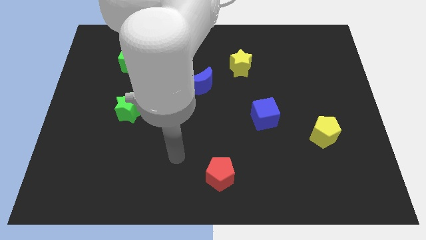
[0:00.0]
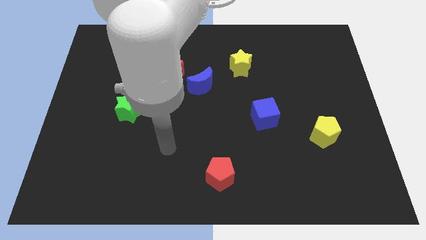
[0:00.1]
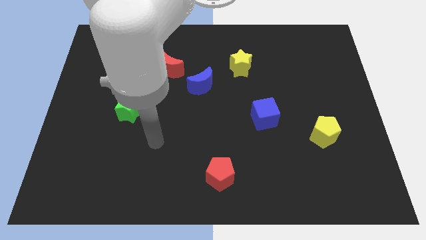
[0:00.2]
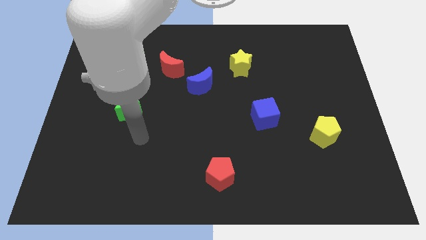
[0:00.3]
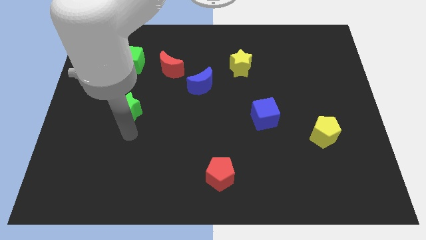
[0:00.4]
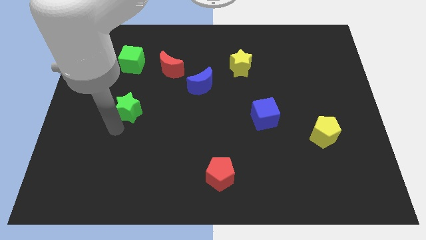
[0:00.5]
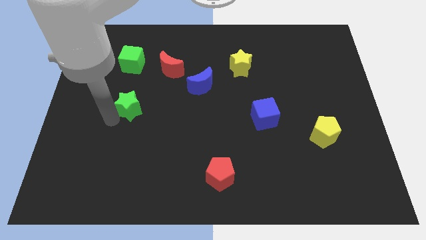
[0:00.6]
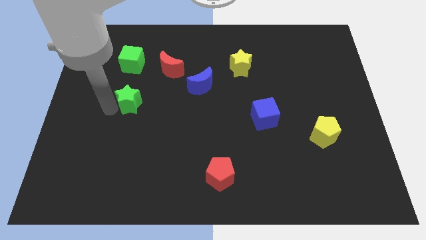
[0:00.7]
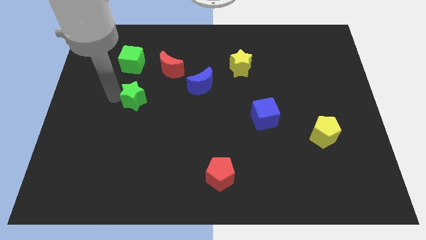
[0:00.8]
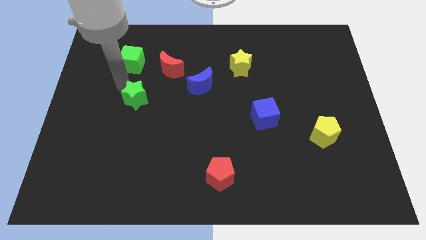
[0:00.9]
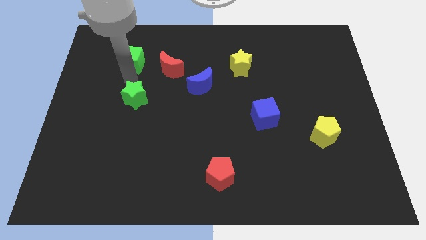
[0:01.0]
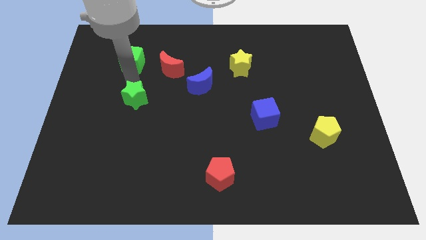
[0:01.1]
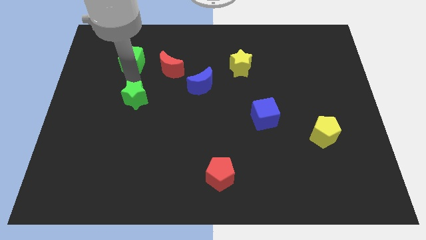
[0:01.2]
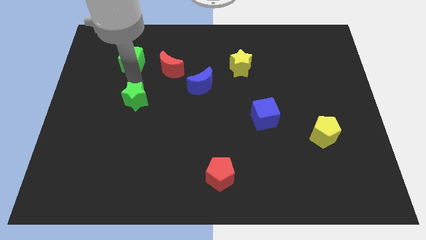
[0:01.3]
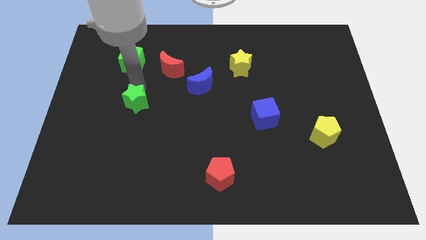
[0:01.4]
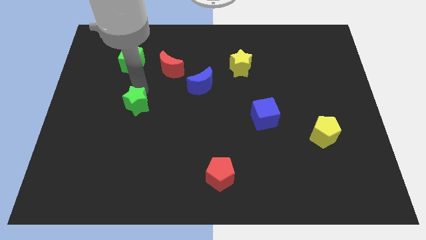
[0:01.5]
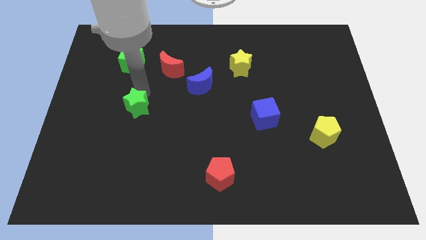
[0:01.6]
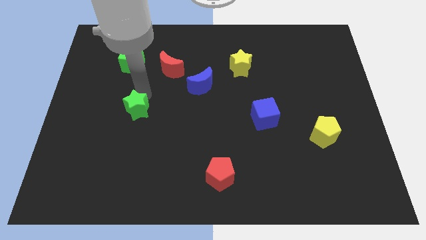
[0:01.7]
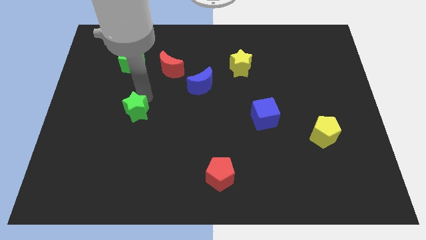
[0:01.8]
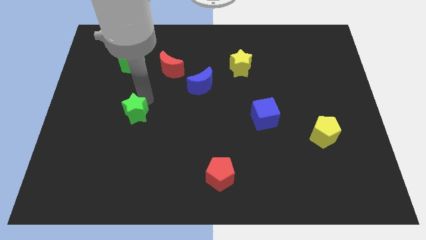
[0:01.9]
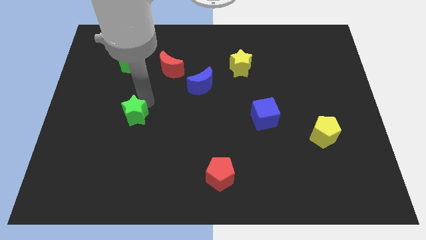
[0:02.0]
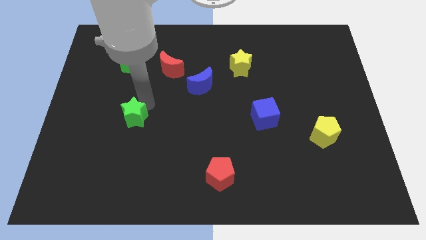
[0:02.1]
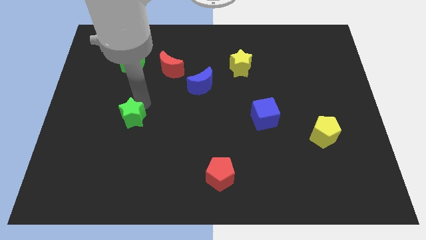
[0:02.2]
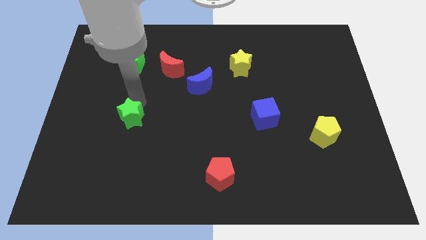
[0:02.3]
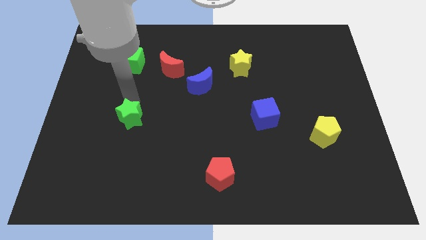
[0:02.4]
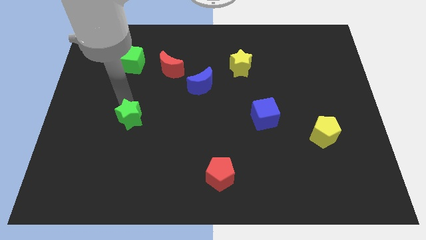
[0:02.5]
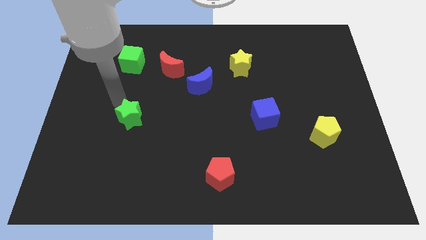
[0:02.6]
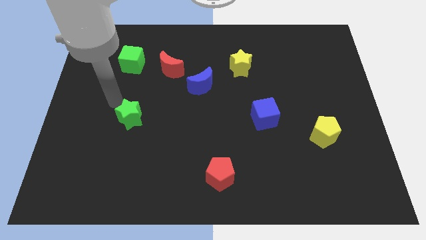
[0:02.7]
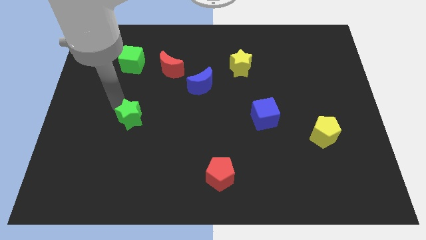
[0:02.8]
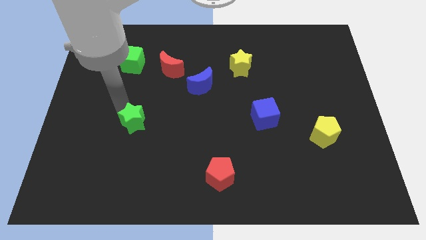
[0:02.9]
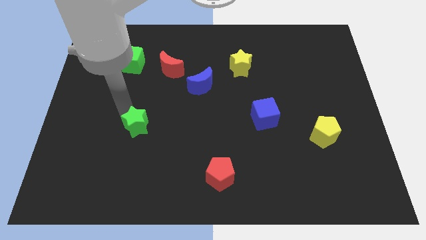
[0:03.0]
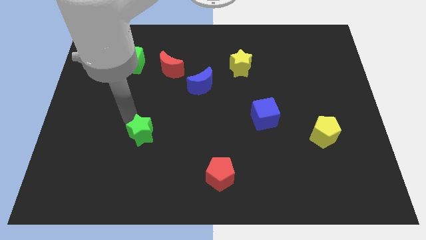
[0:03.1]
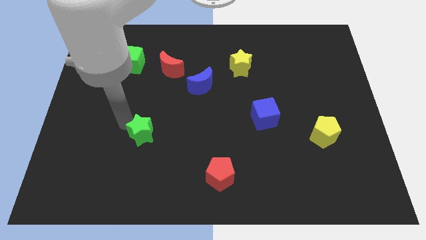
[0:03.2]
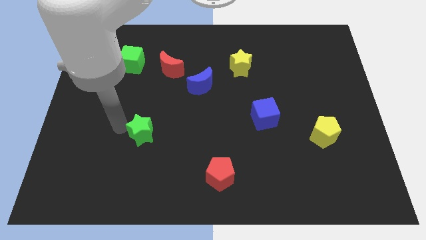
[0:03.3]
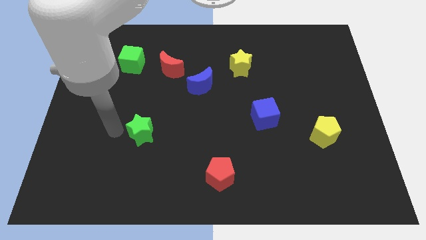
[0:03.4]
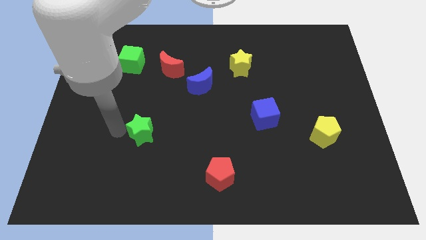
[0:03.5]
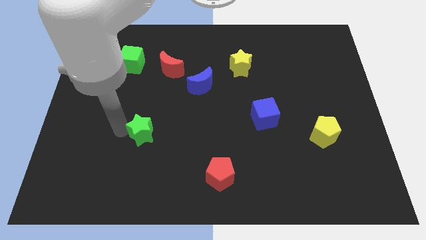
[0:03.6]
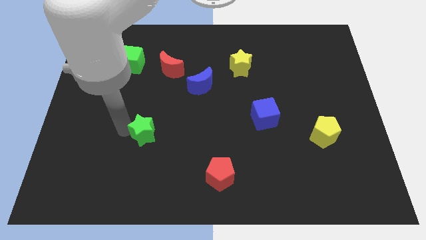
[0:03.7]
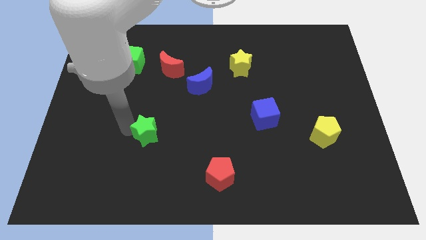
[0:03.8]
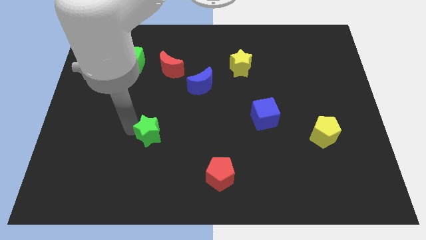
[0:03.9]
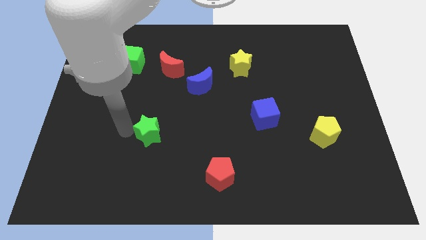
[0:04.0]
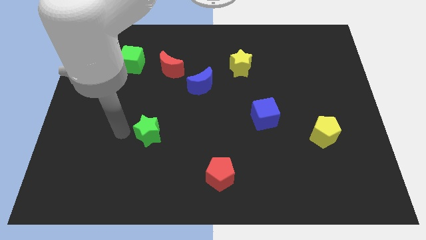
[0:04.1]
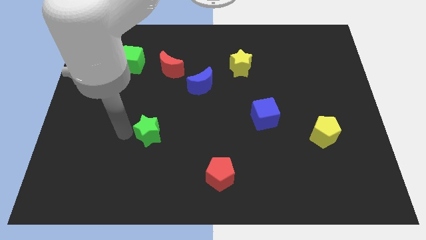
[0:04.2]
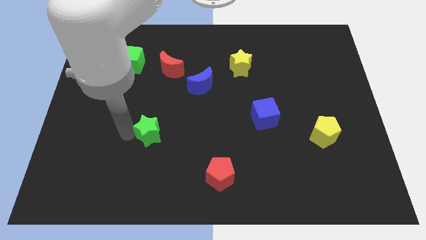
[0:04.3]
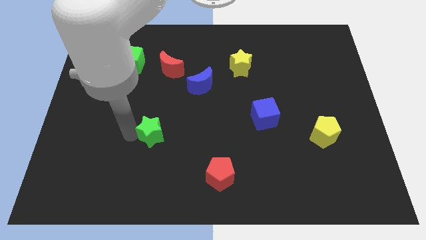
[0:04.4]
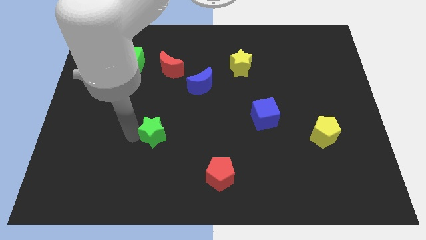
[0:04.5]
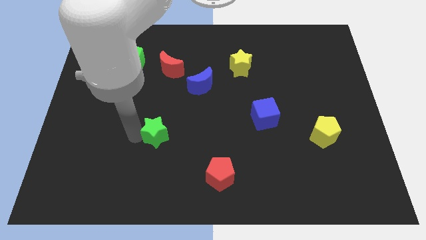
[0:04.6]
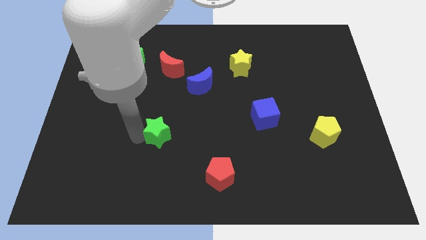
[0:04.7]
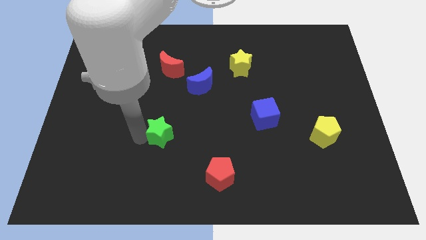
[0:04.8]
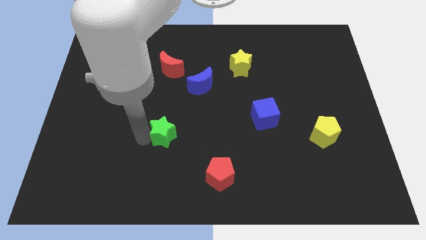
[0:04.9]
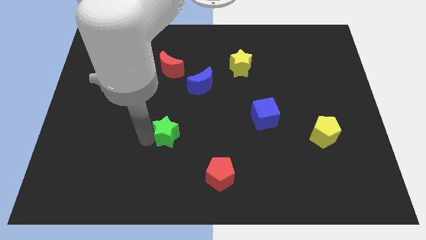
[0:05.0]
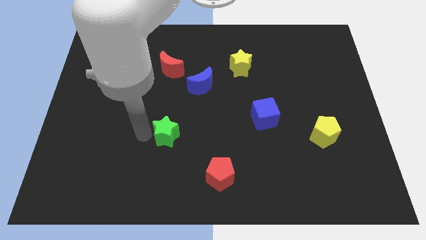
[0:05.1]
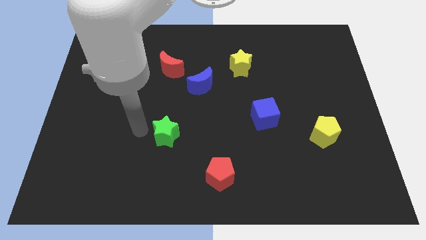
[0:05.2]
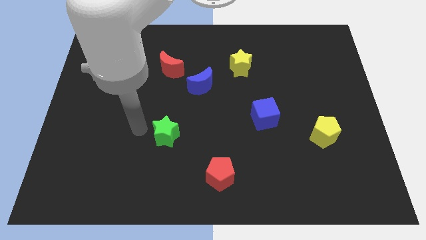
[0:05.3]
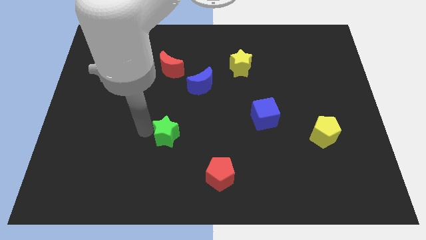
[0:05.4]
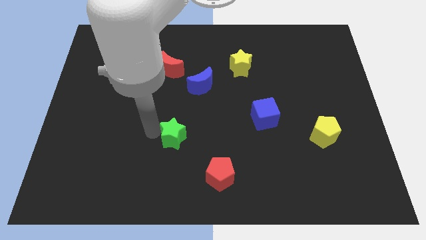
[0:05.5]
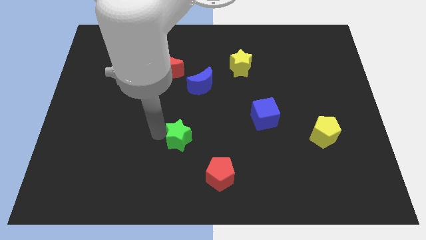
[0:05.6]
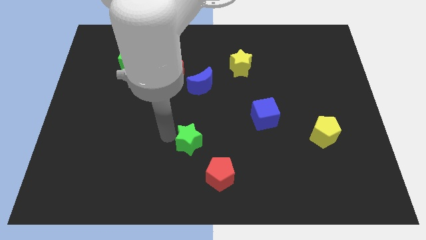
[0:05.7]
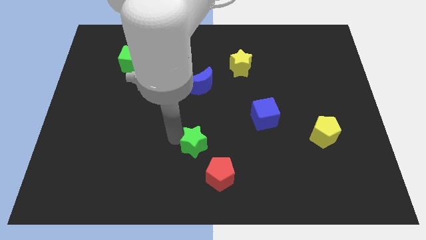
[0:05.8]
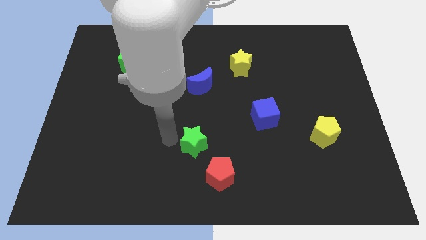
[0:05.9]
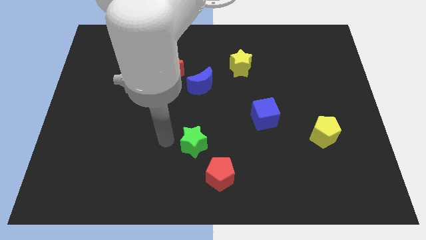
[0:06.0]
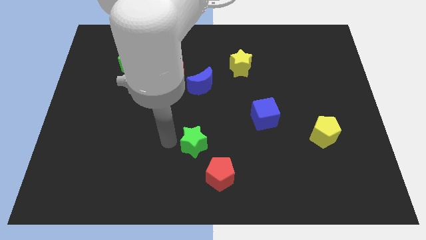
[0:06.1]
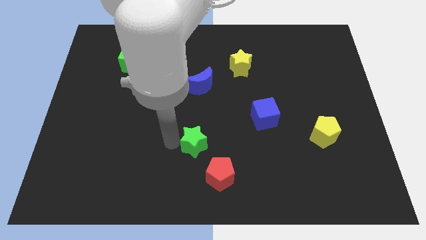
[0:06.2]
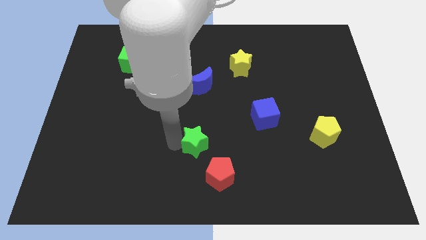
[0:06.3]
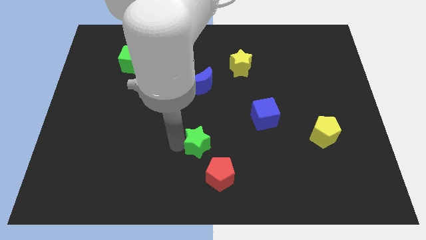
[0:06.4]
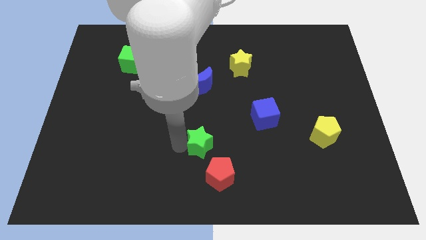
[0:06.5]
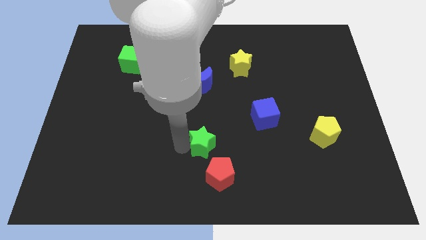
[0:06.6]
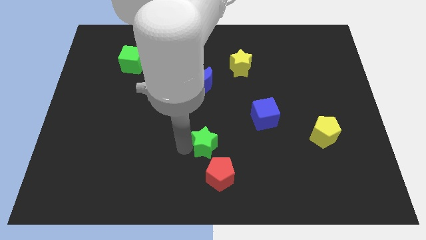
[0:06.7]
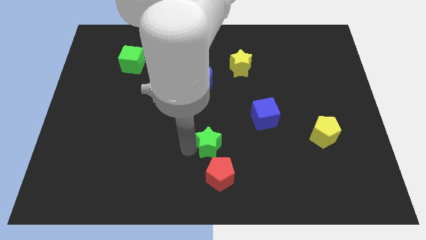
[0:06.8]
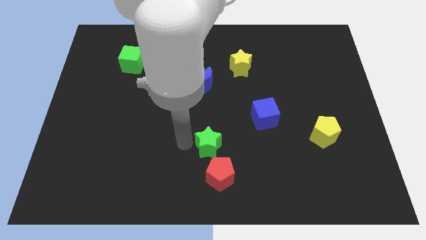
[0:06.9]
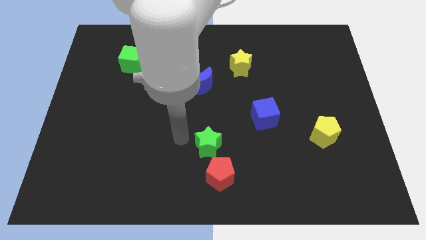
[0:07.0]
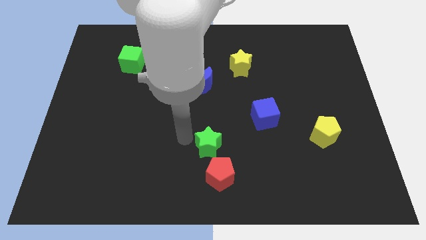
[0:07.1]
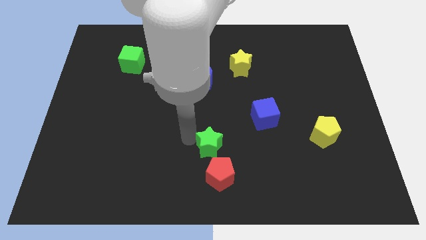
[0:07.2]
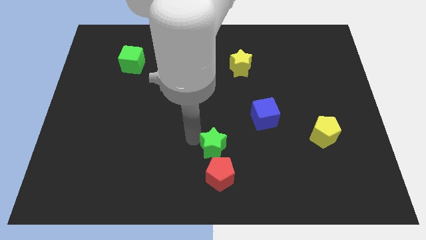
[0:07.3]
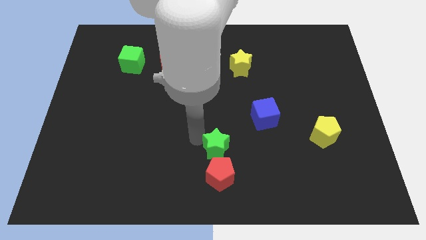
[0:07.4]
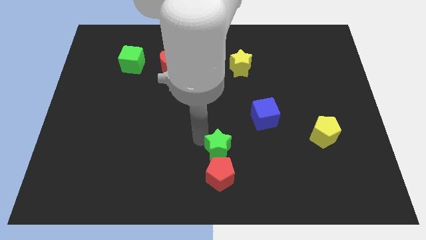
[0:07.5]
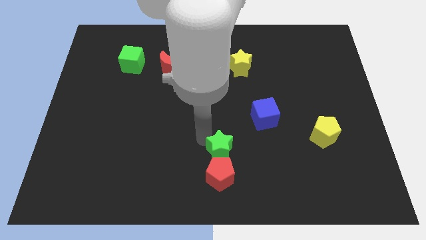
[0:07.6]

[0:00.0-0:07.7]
push the green star to the top right side of the red pentagon
